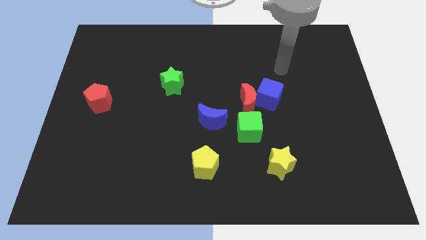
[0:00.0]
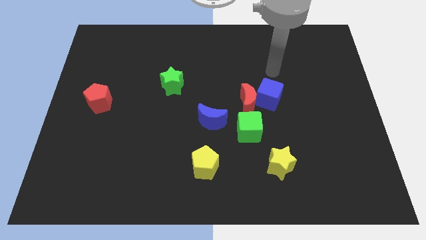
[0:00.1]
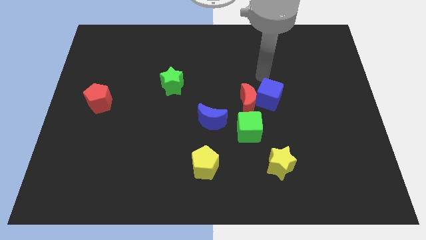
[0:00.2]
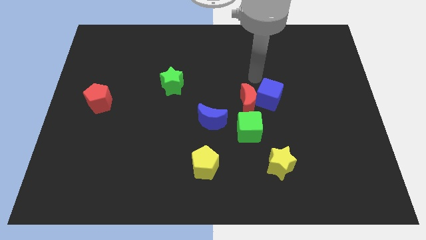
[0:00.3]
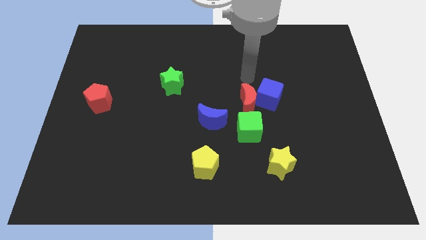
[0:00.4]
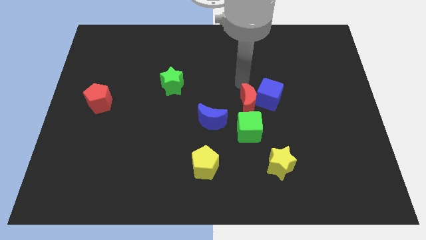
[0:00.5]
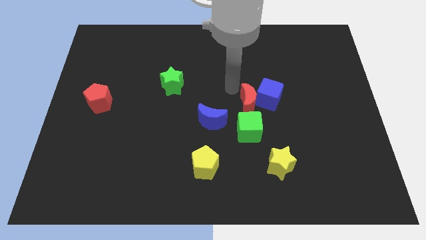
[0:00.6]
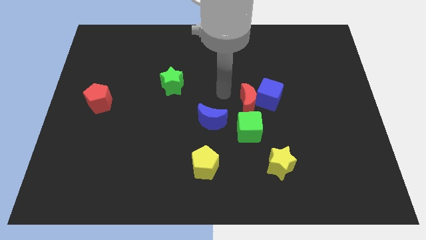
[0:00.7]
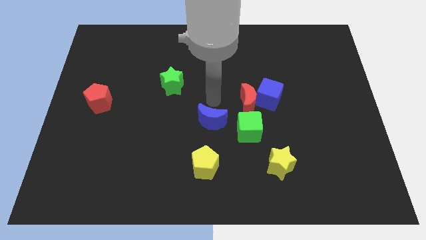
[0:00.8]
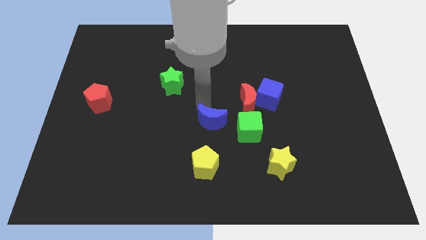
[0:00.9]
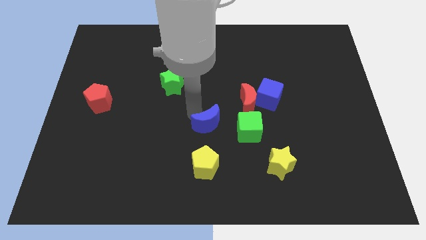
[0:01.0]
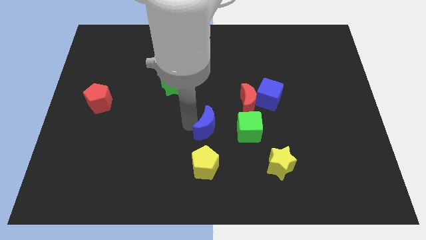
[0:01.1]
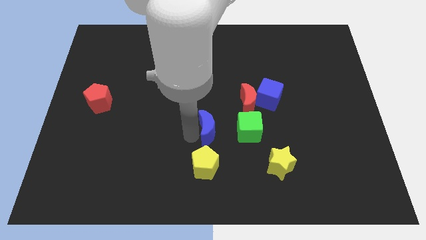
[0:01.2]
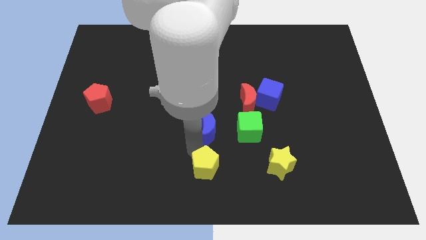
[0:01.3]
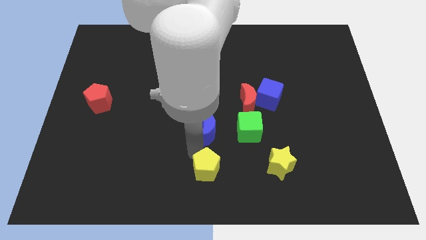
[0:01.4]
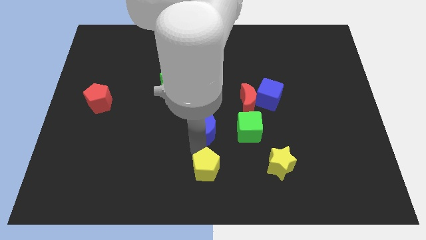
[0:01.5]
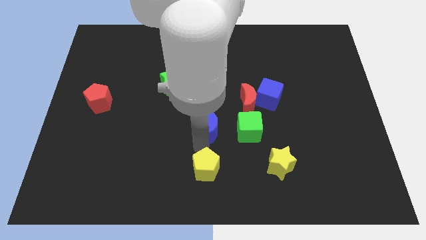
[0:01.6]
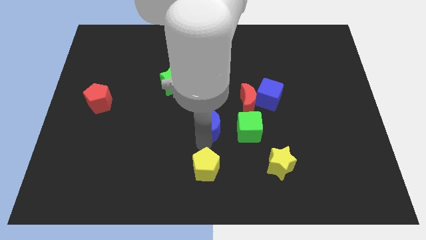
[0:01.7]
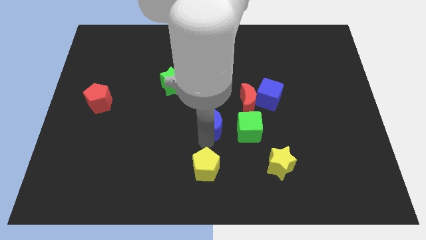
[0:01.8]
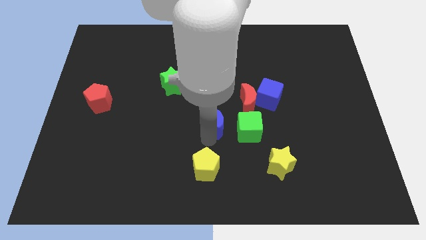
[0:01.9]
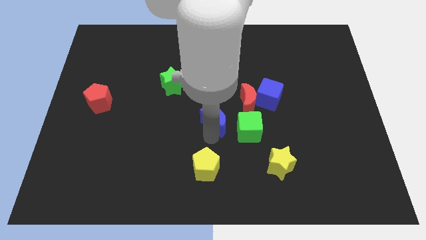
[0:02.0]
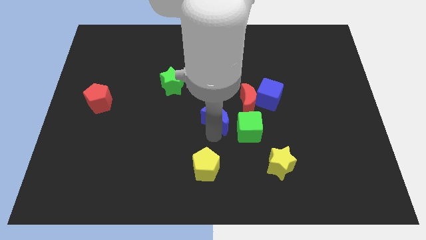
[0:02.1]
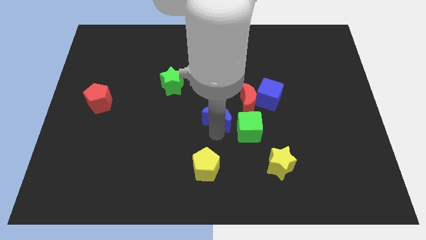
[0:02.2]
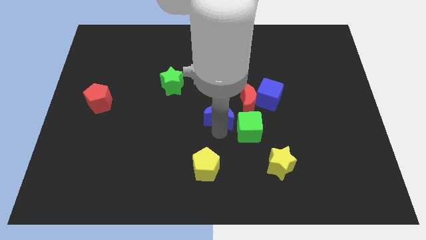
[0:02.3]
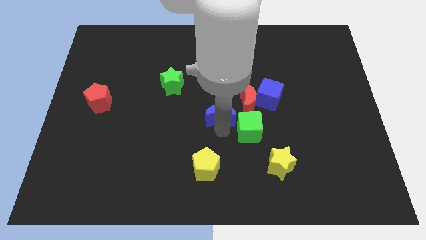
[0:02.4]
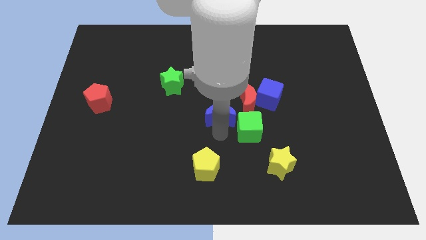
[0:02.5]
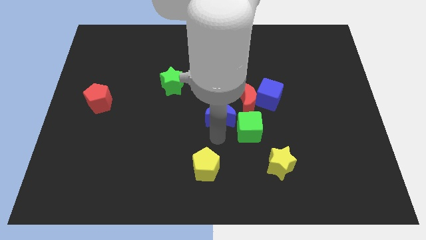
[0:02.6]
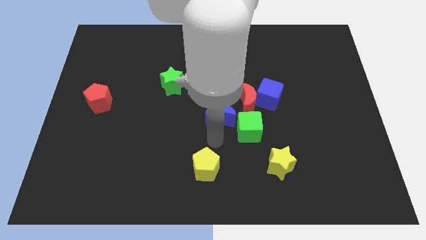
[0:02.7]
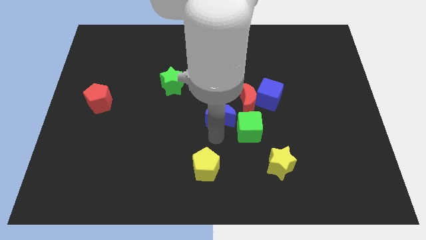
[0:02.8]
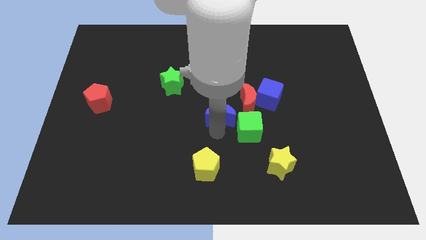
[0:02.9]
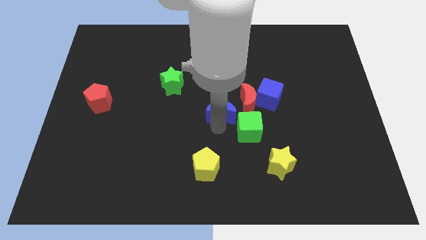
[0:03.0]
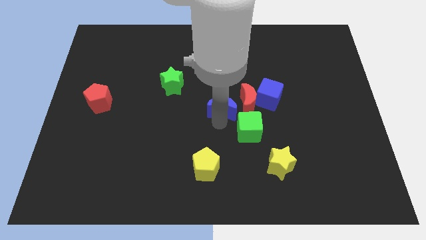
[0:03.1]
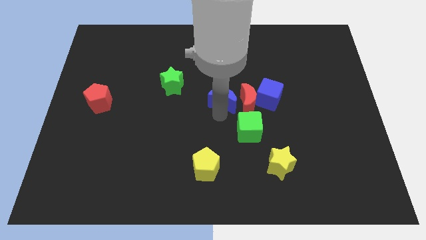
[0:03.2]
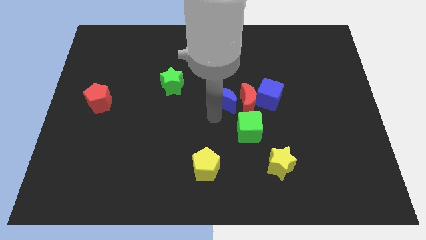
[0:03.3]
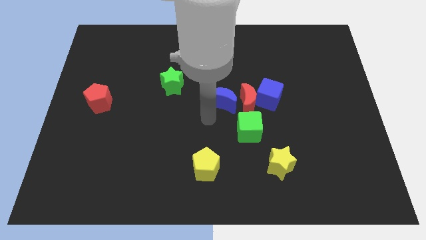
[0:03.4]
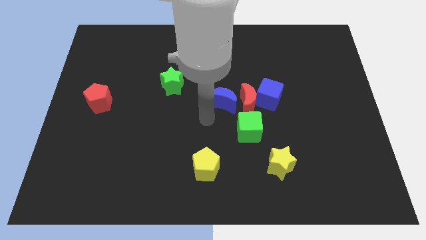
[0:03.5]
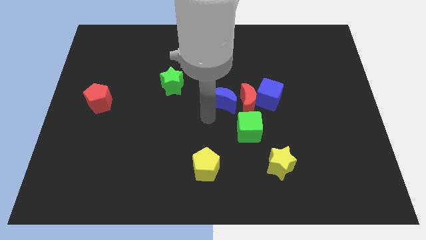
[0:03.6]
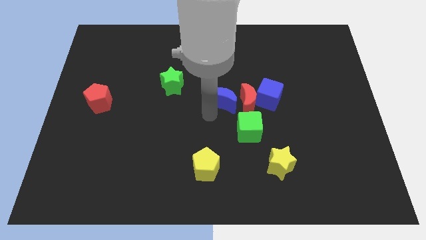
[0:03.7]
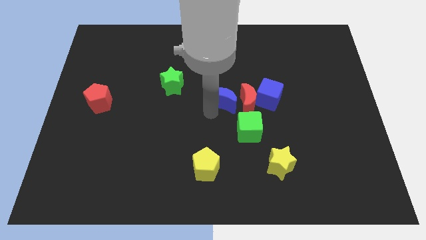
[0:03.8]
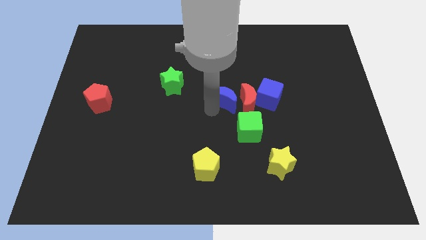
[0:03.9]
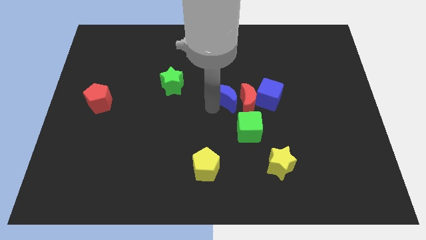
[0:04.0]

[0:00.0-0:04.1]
slide the blue moon a bit diagonally upwards and right

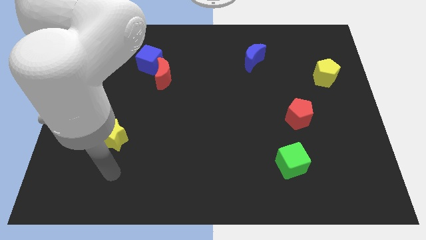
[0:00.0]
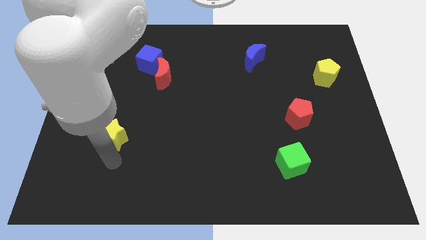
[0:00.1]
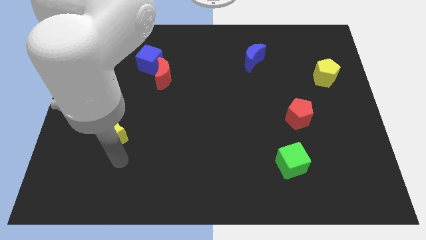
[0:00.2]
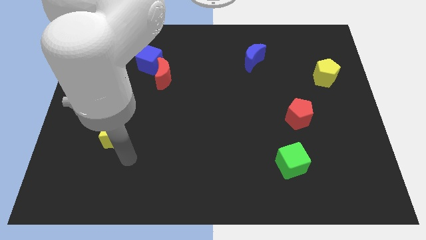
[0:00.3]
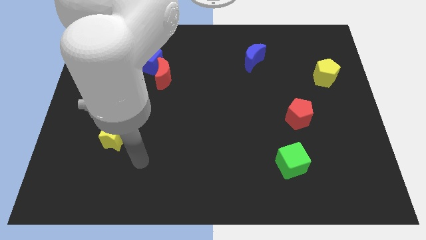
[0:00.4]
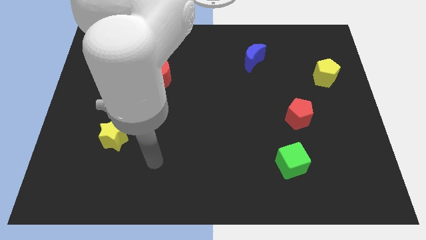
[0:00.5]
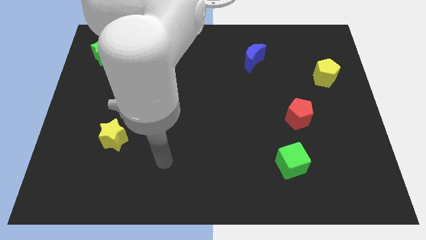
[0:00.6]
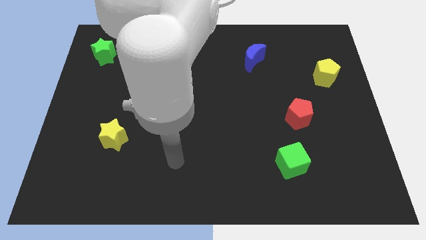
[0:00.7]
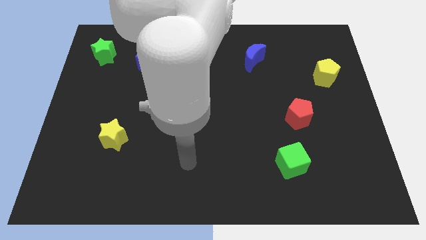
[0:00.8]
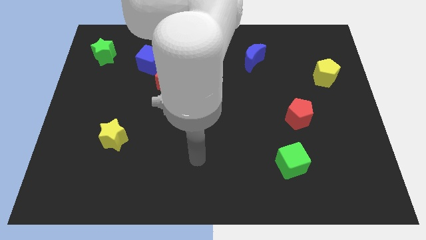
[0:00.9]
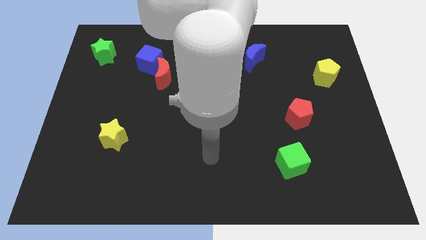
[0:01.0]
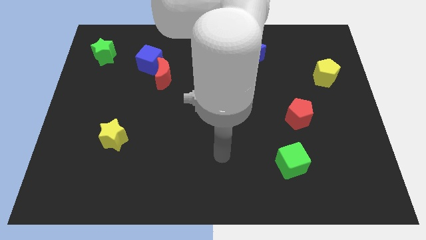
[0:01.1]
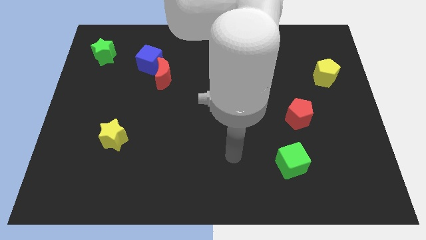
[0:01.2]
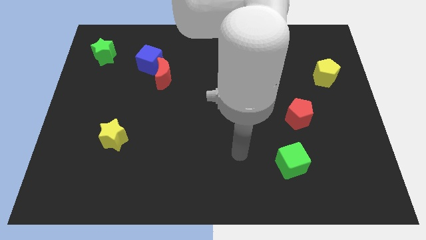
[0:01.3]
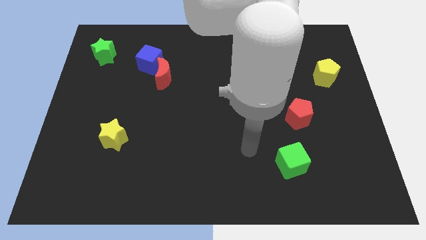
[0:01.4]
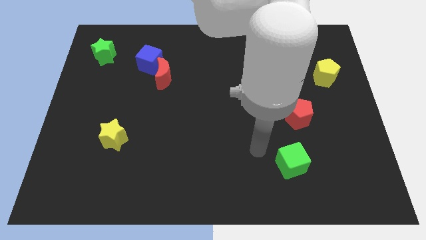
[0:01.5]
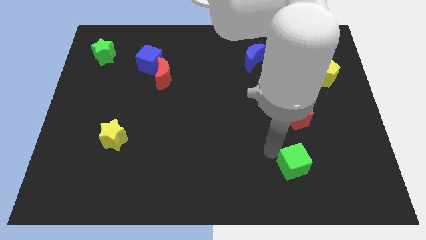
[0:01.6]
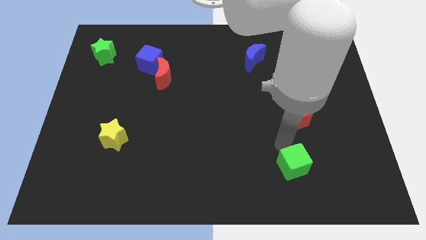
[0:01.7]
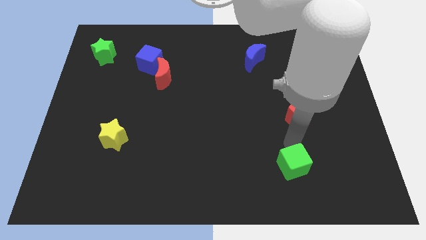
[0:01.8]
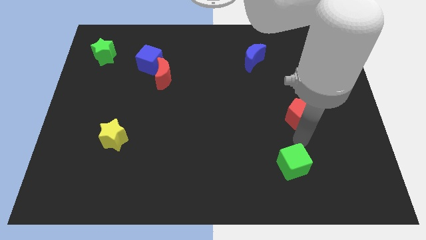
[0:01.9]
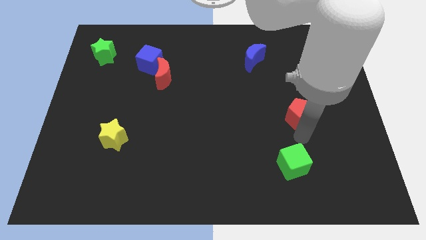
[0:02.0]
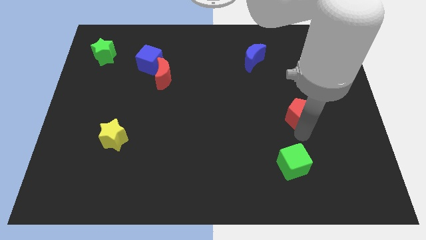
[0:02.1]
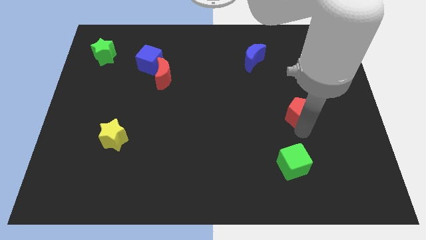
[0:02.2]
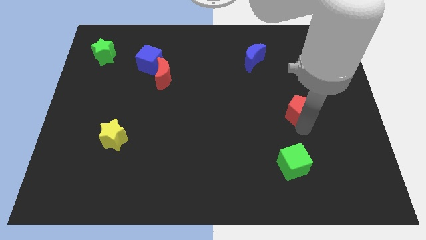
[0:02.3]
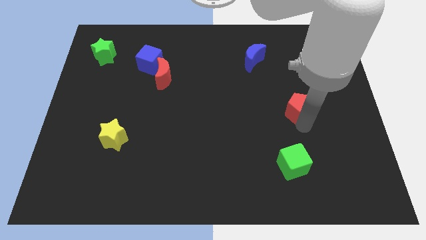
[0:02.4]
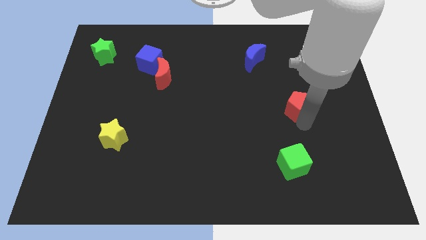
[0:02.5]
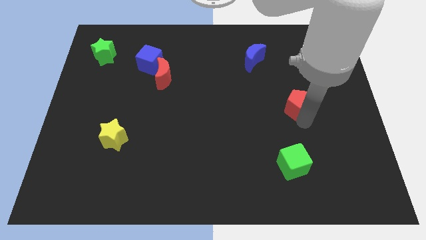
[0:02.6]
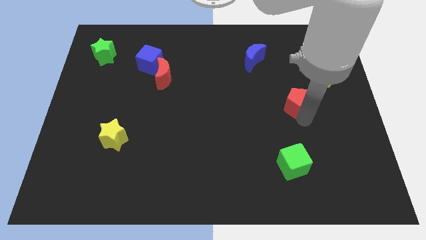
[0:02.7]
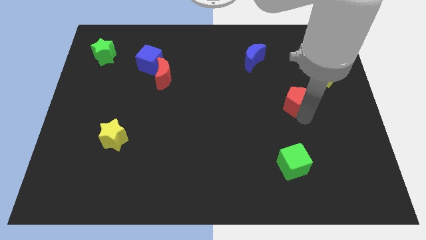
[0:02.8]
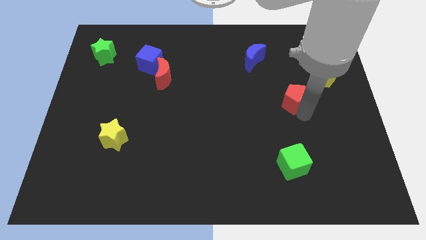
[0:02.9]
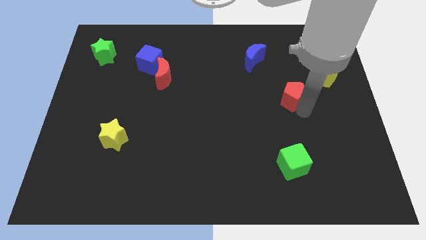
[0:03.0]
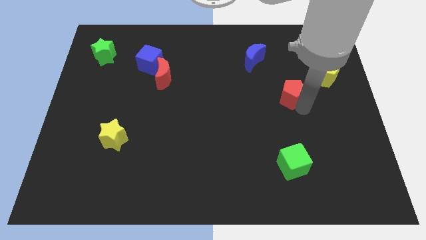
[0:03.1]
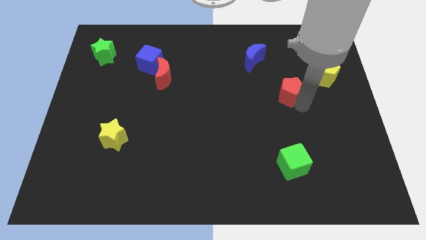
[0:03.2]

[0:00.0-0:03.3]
slightly move the red pentagon upwards
